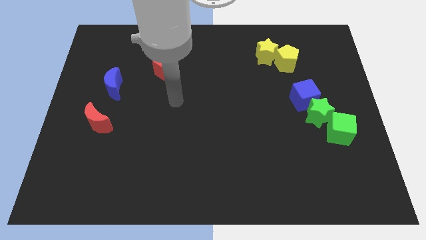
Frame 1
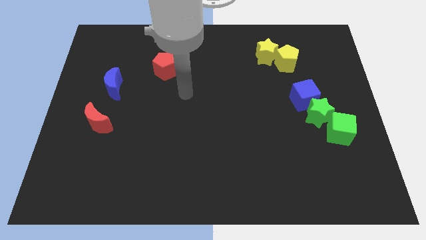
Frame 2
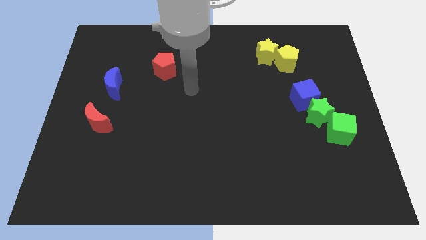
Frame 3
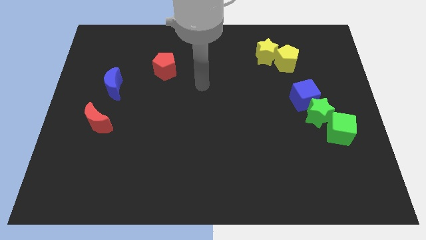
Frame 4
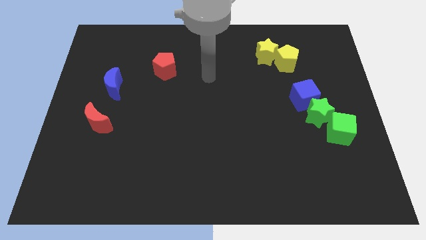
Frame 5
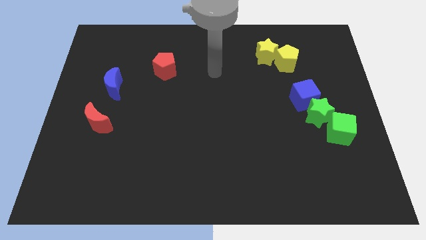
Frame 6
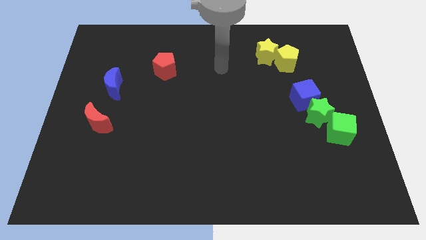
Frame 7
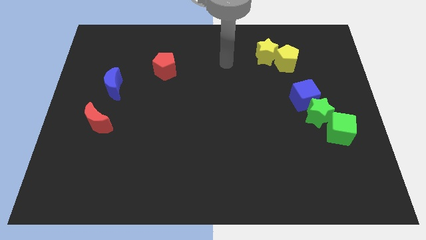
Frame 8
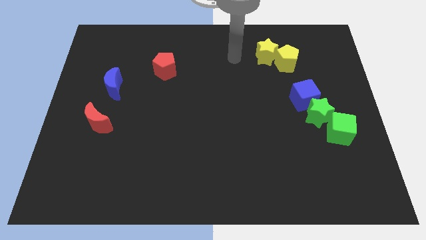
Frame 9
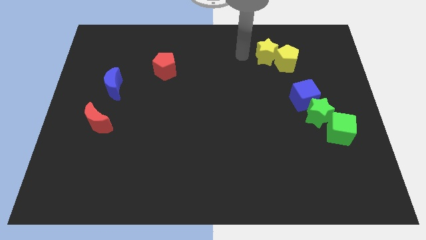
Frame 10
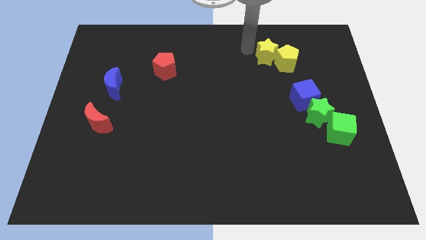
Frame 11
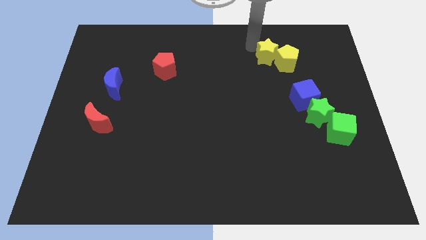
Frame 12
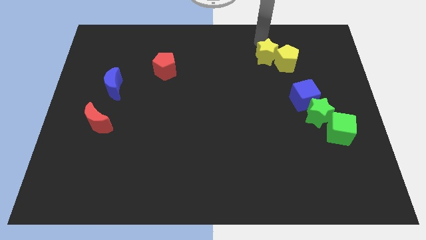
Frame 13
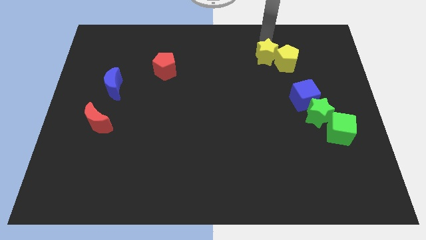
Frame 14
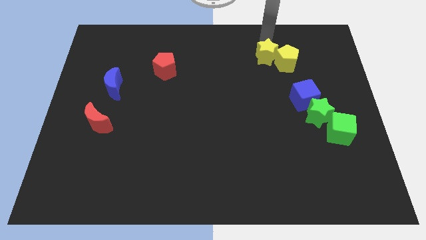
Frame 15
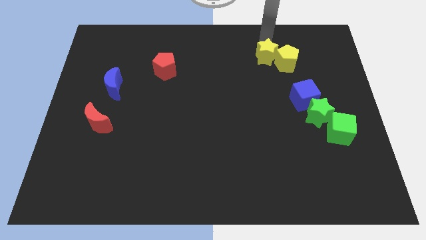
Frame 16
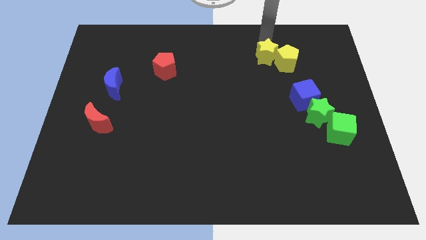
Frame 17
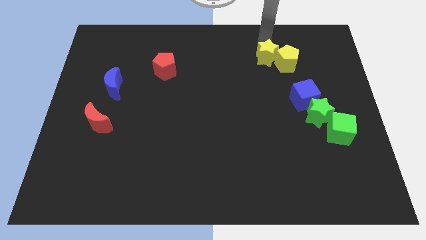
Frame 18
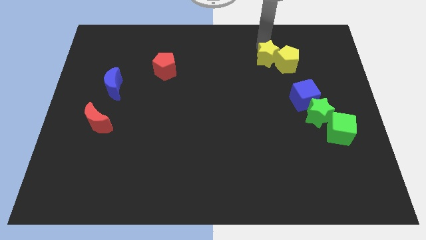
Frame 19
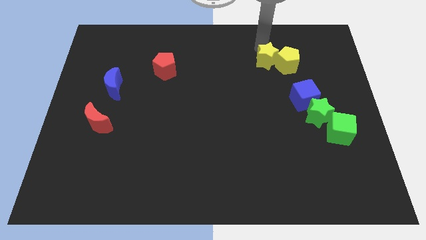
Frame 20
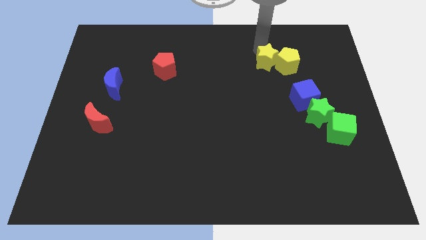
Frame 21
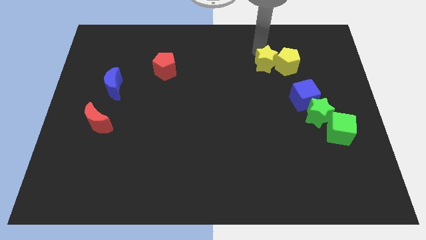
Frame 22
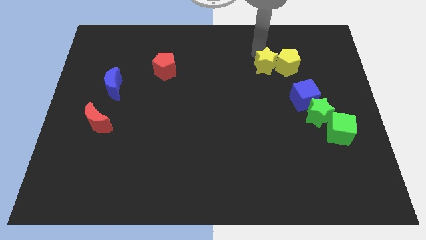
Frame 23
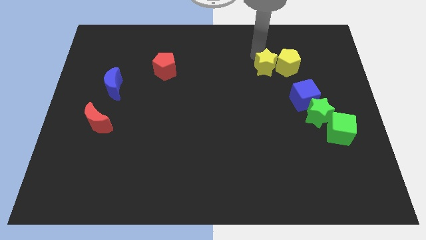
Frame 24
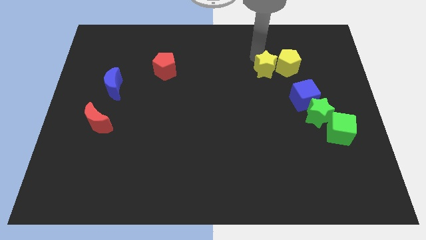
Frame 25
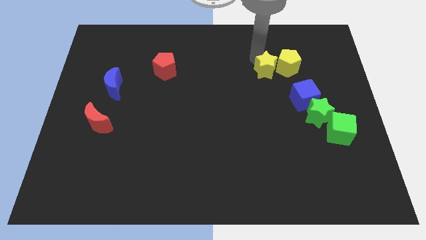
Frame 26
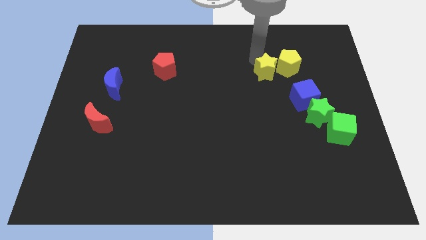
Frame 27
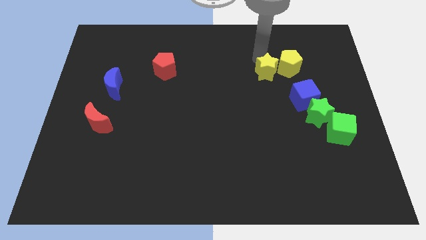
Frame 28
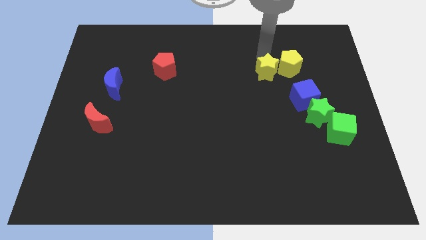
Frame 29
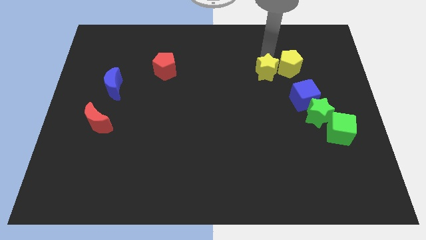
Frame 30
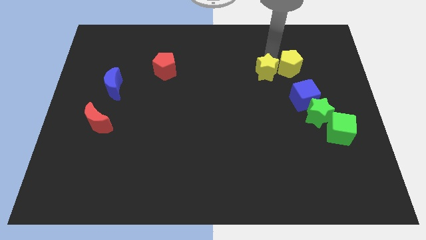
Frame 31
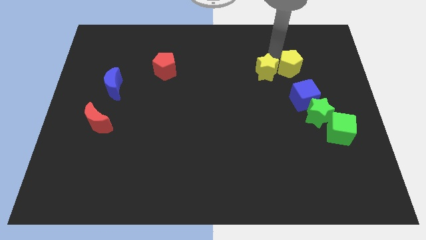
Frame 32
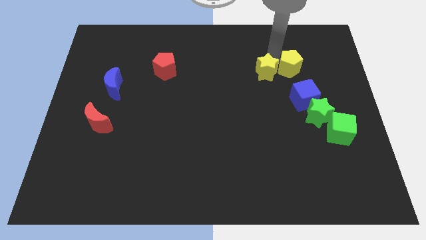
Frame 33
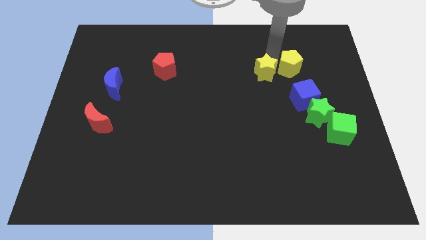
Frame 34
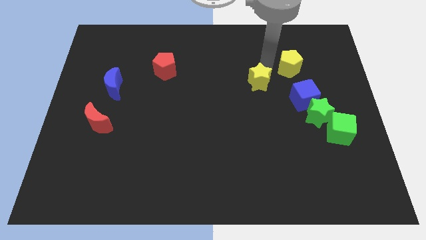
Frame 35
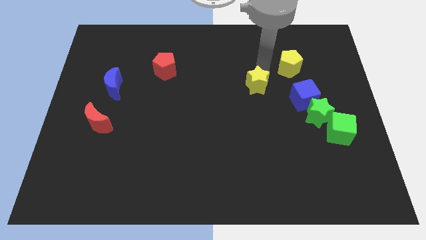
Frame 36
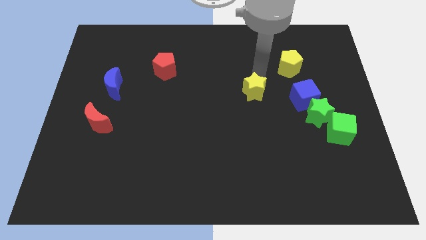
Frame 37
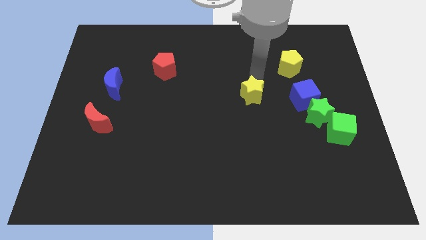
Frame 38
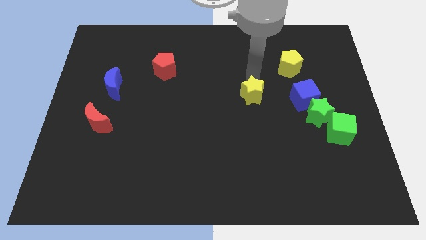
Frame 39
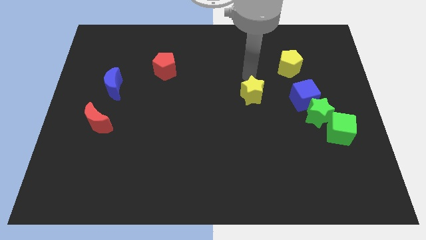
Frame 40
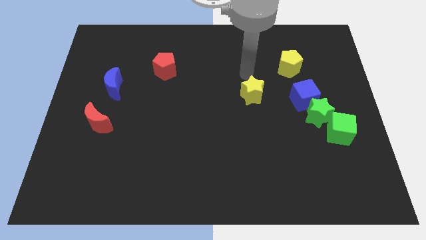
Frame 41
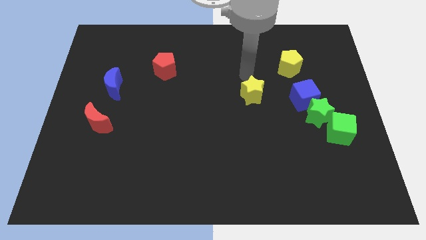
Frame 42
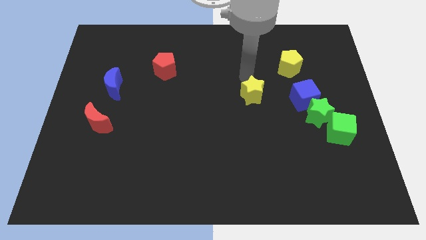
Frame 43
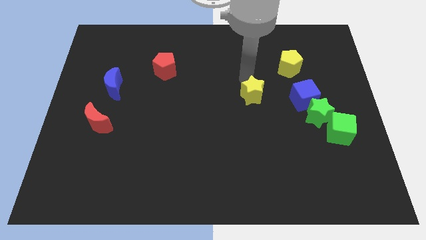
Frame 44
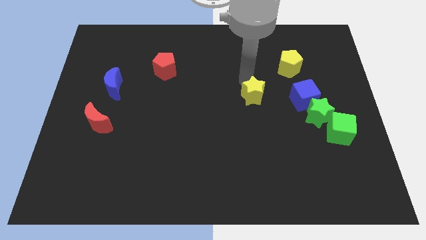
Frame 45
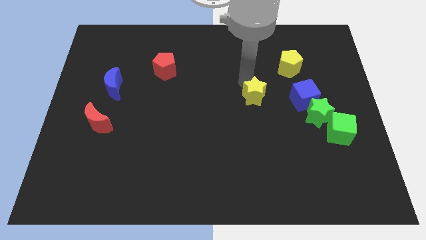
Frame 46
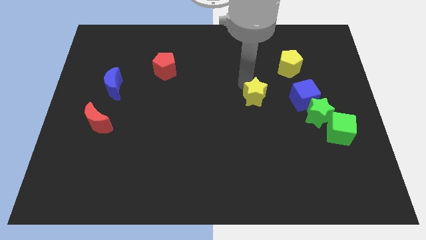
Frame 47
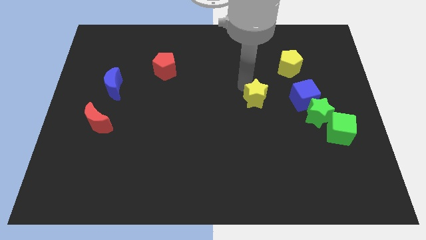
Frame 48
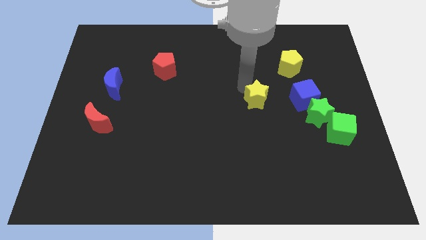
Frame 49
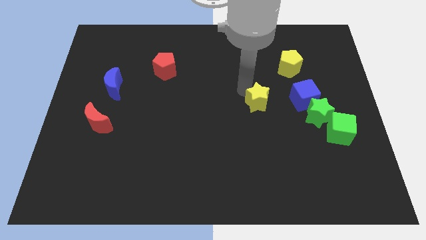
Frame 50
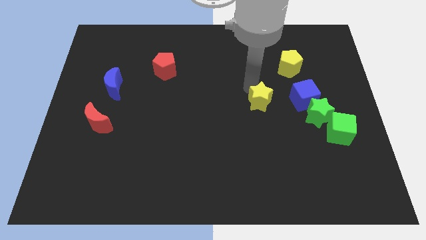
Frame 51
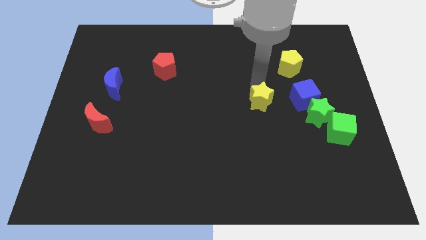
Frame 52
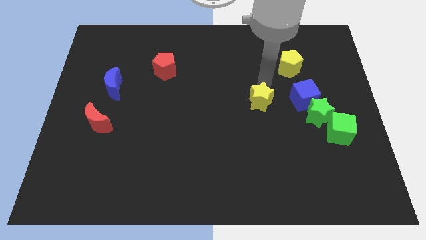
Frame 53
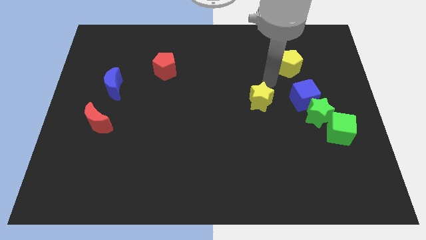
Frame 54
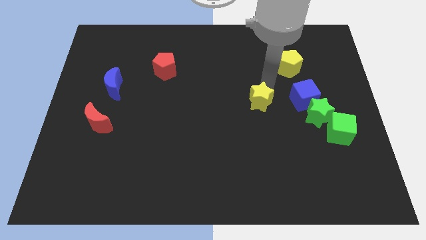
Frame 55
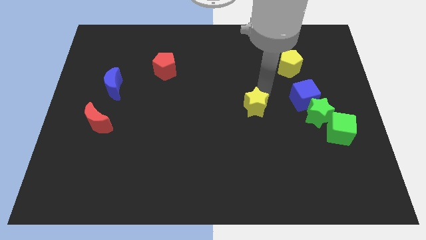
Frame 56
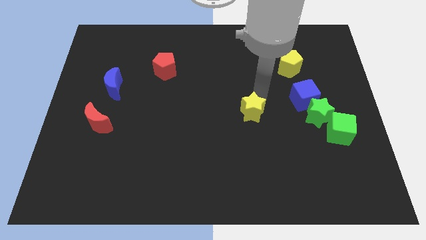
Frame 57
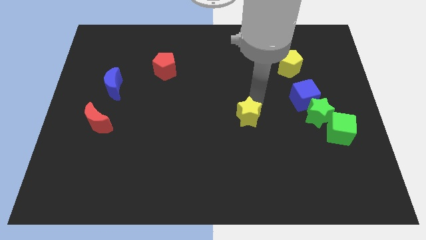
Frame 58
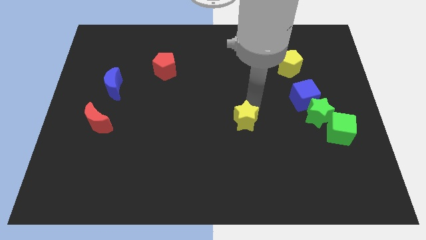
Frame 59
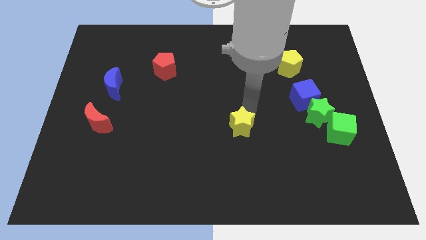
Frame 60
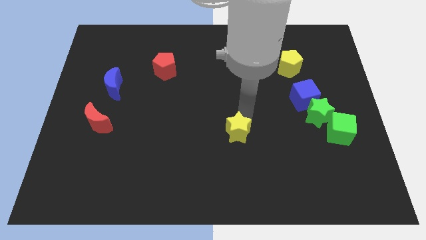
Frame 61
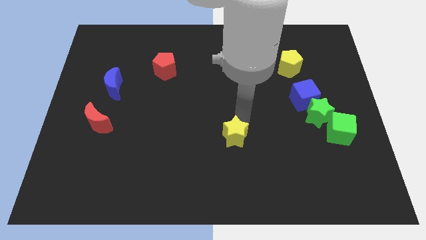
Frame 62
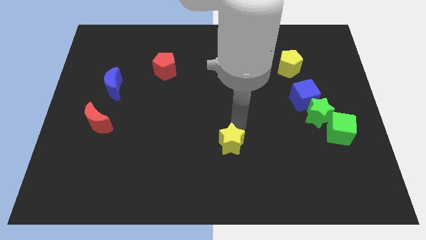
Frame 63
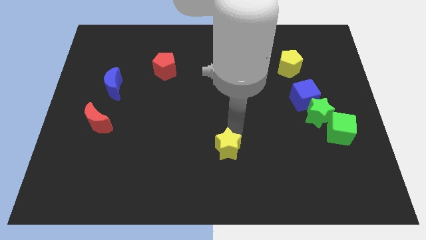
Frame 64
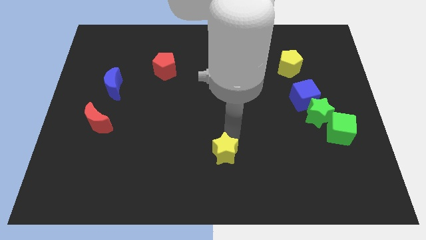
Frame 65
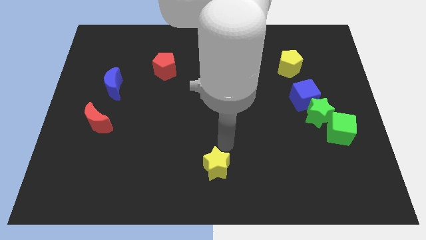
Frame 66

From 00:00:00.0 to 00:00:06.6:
put the yellow star to the bottom
